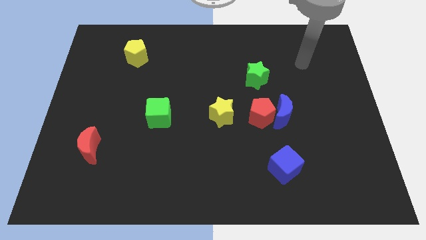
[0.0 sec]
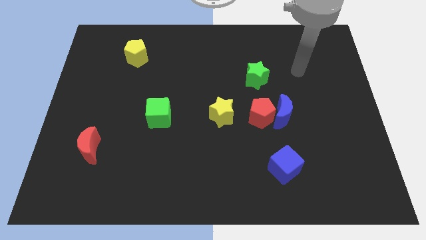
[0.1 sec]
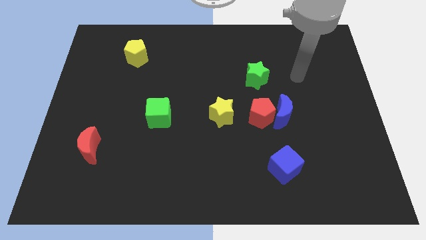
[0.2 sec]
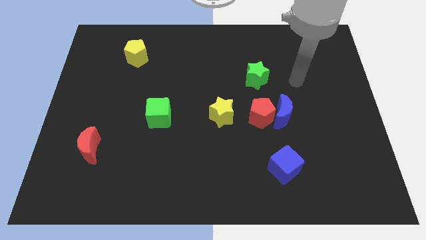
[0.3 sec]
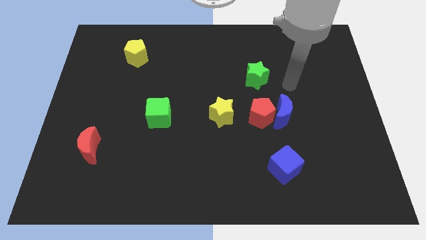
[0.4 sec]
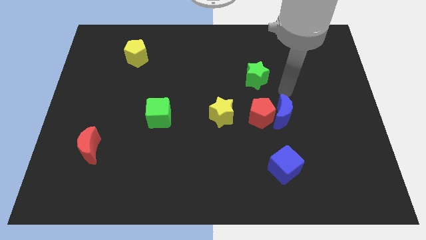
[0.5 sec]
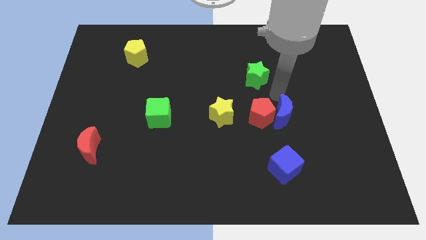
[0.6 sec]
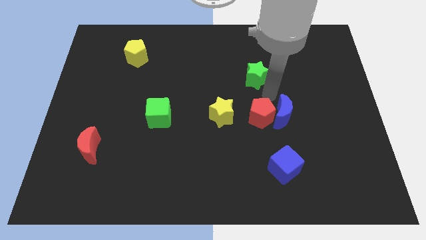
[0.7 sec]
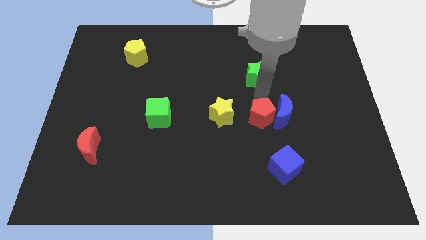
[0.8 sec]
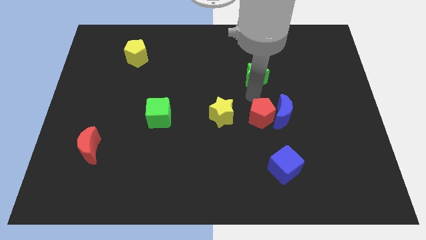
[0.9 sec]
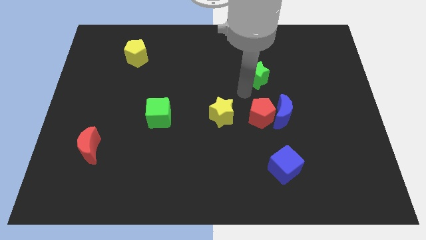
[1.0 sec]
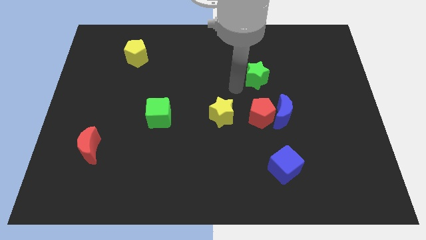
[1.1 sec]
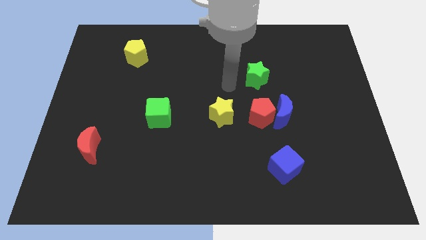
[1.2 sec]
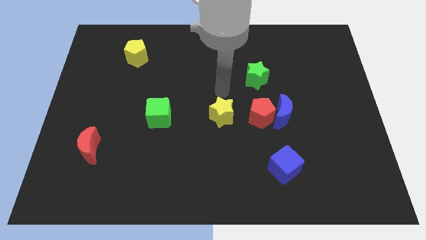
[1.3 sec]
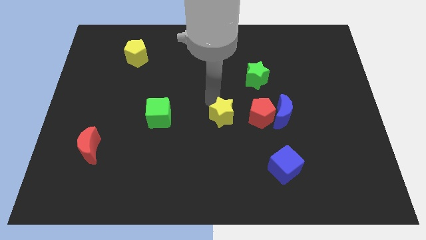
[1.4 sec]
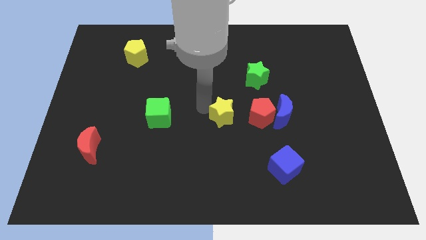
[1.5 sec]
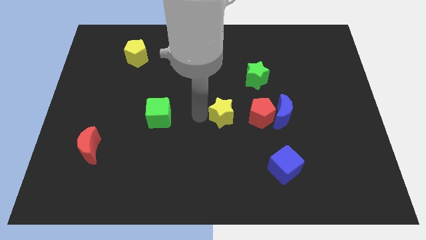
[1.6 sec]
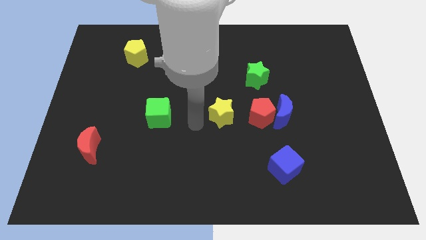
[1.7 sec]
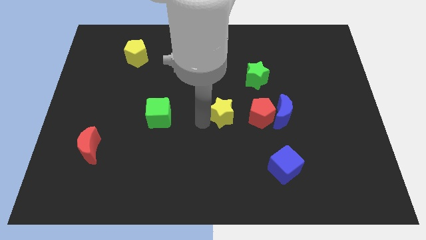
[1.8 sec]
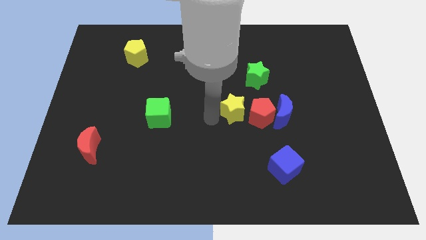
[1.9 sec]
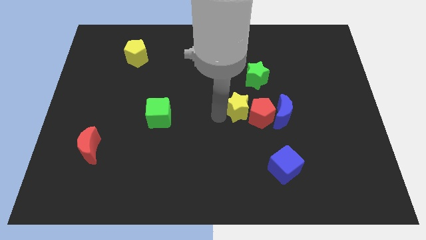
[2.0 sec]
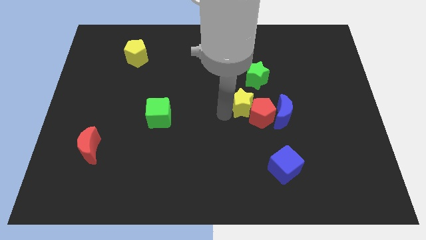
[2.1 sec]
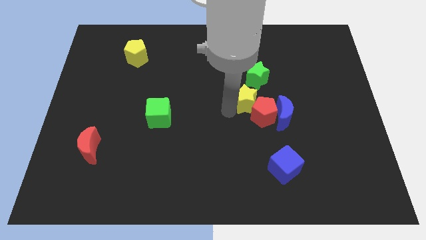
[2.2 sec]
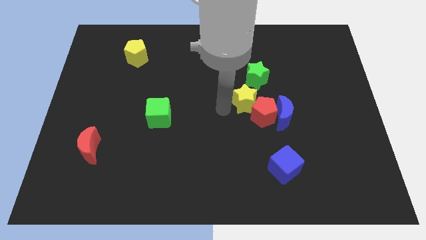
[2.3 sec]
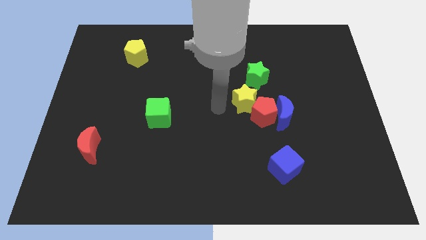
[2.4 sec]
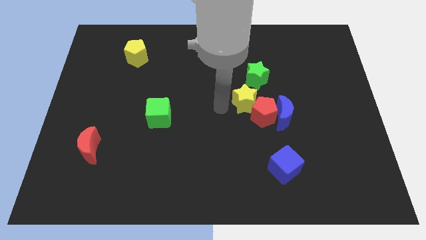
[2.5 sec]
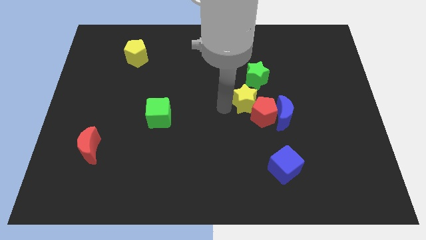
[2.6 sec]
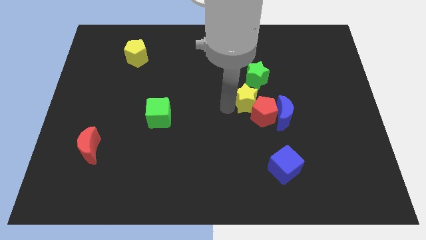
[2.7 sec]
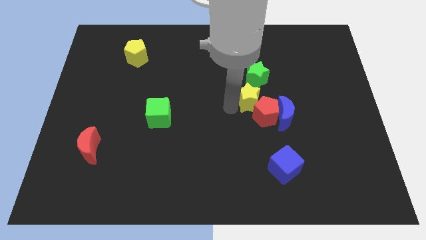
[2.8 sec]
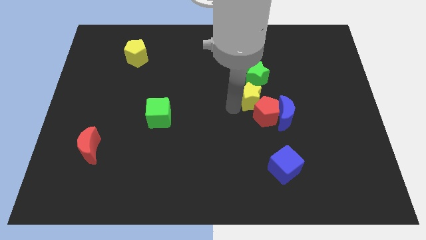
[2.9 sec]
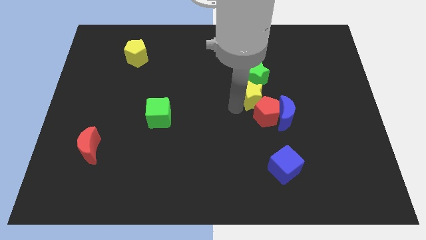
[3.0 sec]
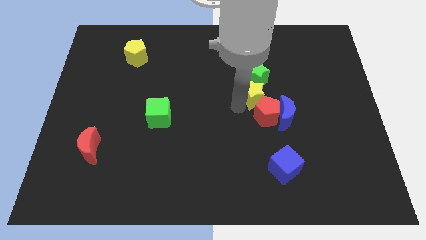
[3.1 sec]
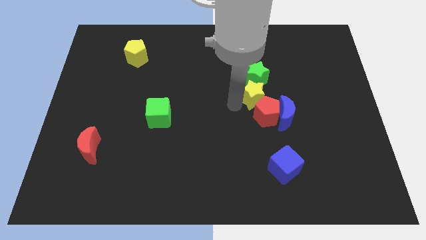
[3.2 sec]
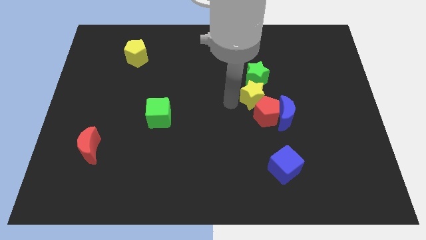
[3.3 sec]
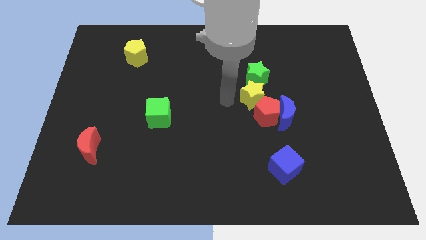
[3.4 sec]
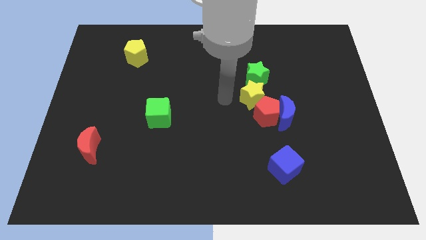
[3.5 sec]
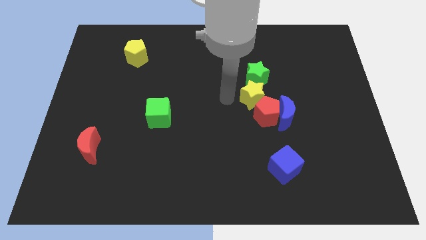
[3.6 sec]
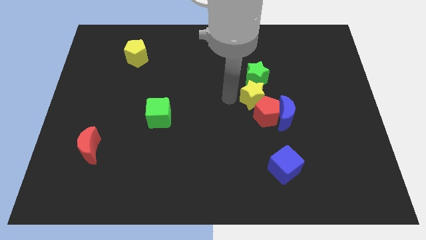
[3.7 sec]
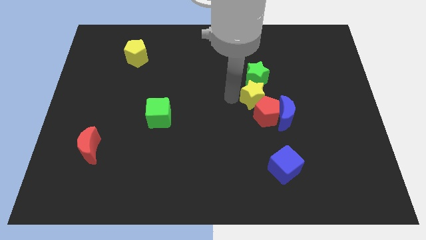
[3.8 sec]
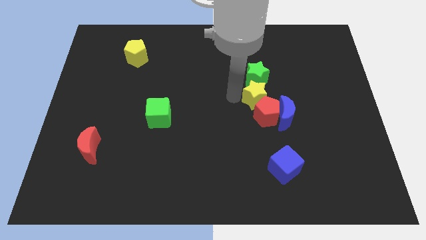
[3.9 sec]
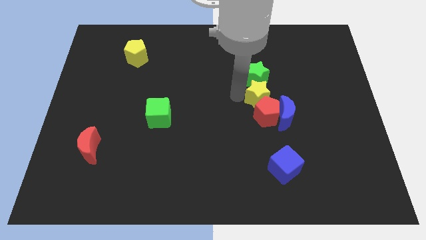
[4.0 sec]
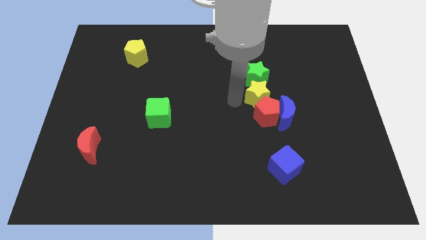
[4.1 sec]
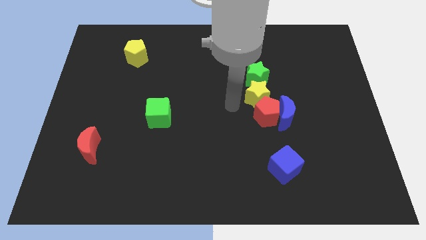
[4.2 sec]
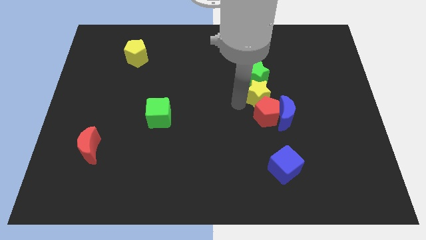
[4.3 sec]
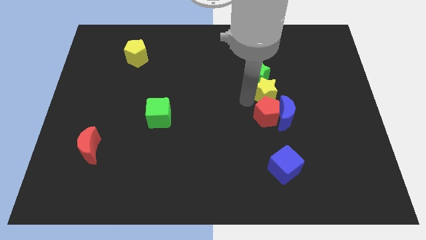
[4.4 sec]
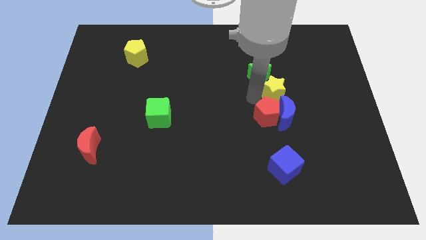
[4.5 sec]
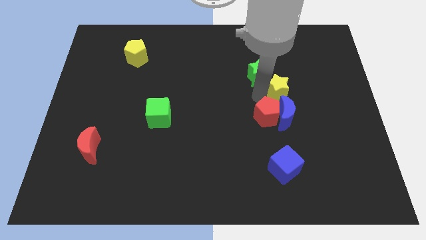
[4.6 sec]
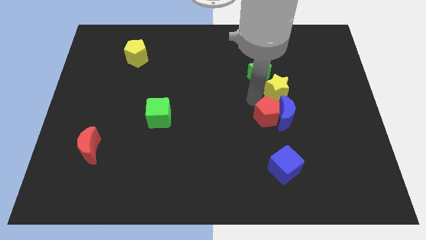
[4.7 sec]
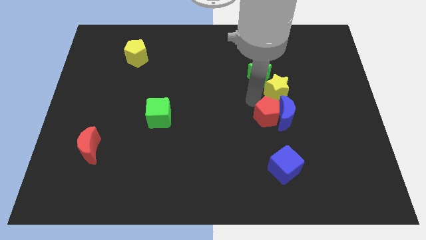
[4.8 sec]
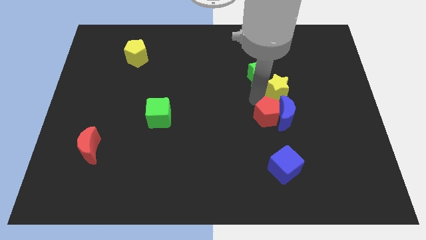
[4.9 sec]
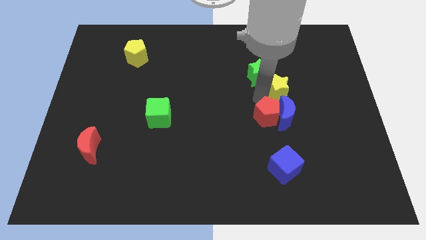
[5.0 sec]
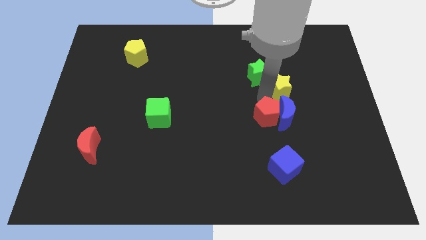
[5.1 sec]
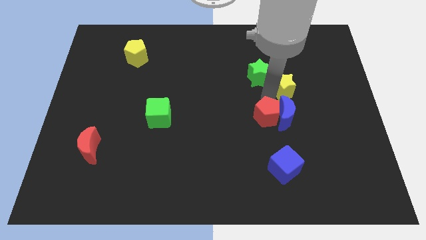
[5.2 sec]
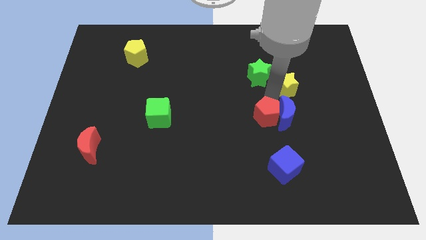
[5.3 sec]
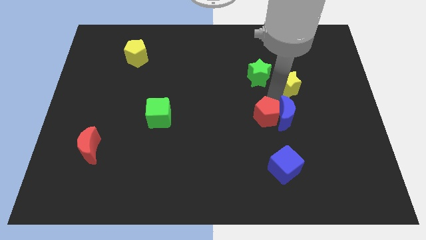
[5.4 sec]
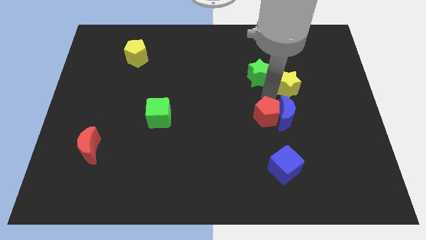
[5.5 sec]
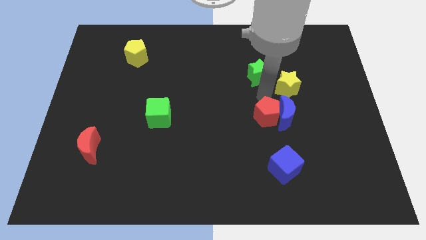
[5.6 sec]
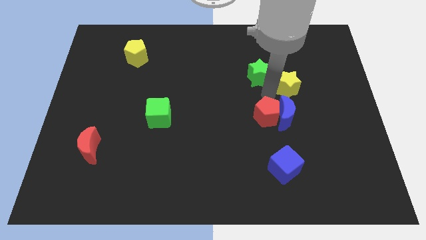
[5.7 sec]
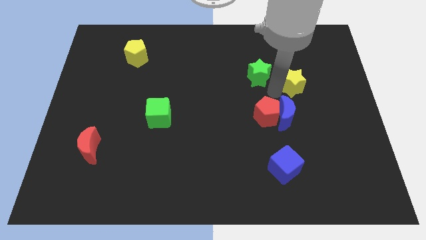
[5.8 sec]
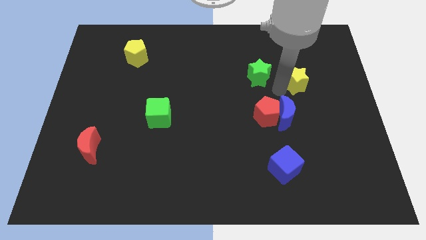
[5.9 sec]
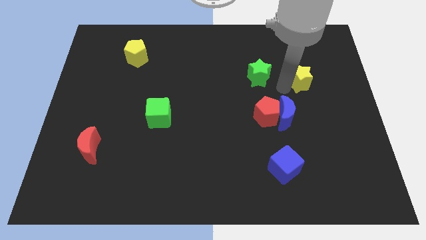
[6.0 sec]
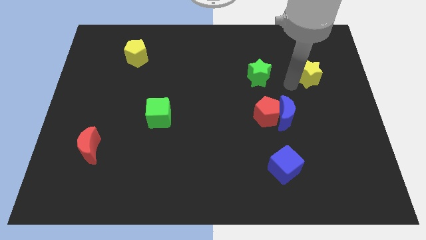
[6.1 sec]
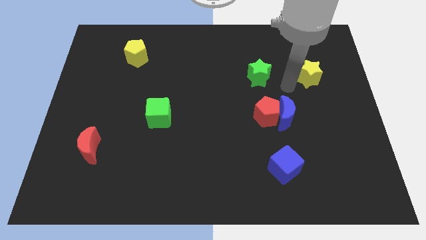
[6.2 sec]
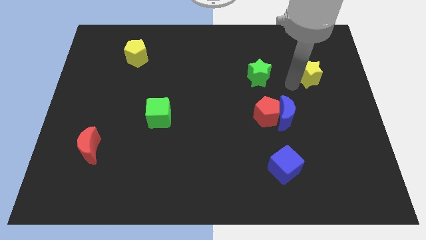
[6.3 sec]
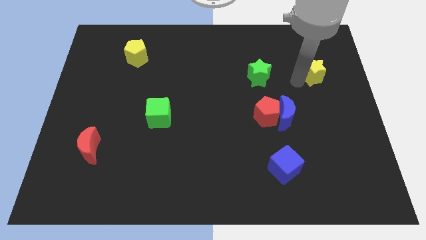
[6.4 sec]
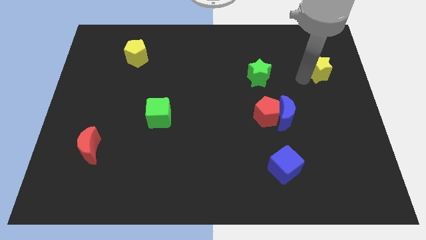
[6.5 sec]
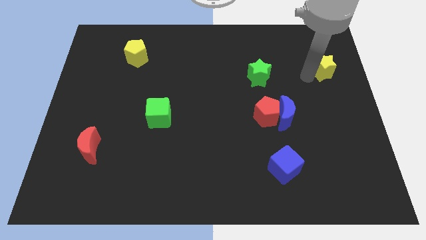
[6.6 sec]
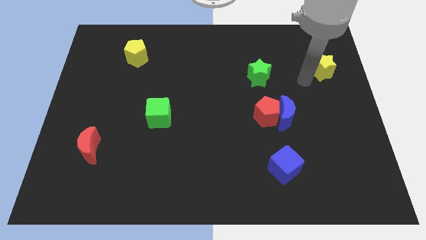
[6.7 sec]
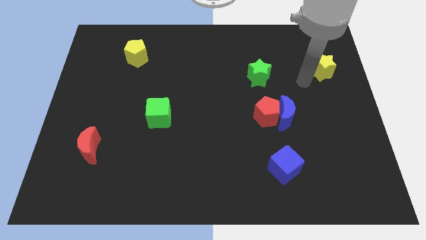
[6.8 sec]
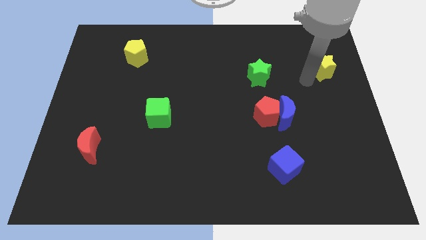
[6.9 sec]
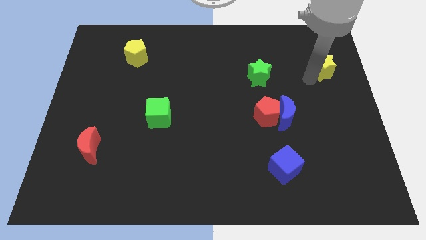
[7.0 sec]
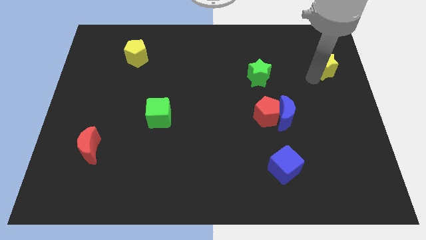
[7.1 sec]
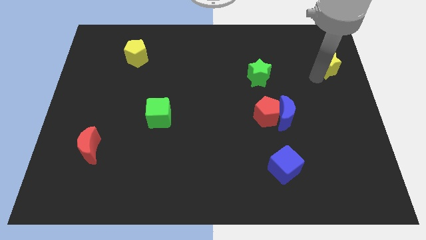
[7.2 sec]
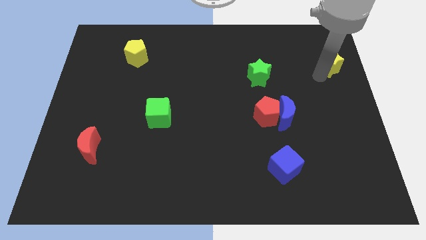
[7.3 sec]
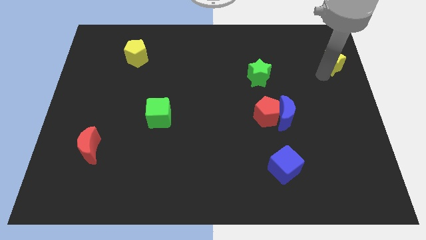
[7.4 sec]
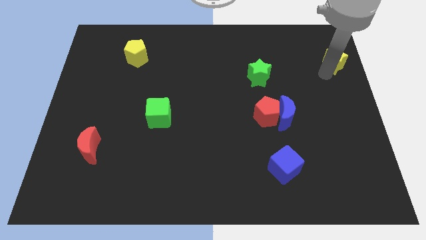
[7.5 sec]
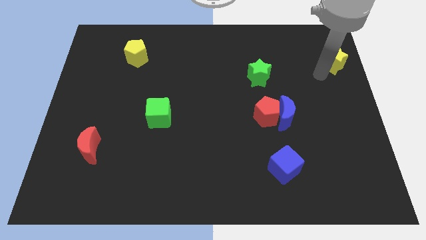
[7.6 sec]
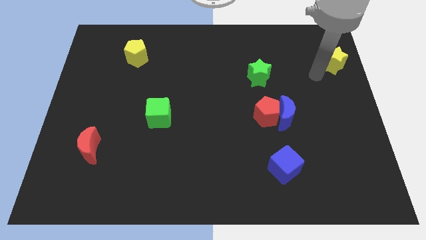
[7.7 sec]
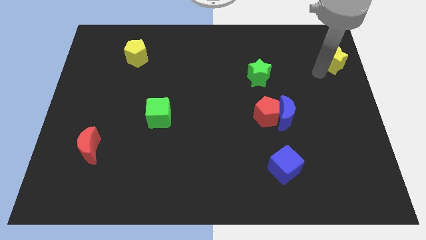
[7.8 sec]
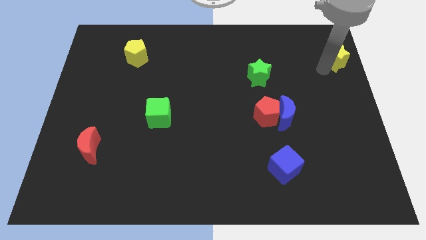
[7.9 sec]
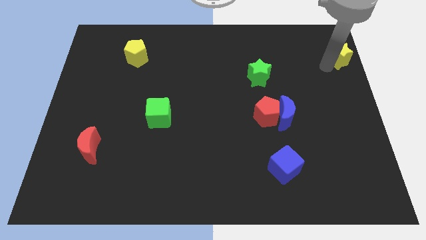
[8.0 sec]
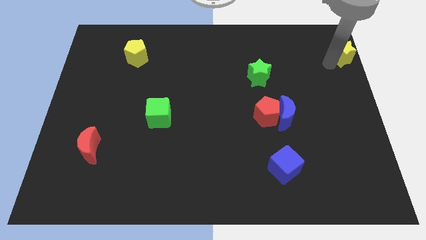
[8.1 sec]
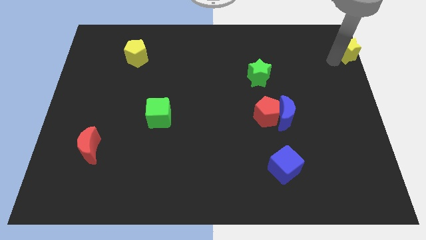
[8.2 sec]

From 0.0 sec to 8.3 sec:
slide the yellow star to the upper right corner
